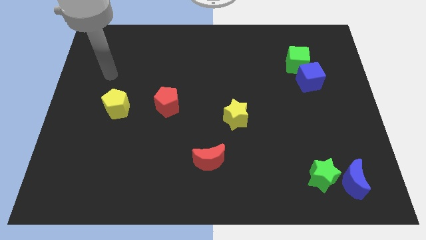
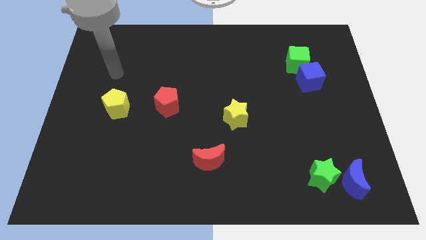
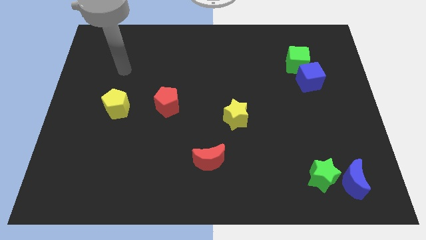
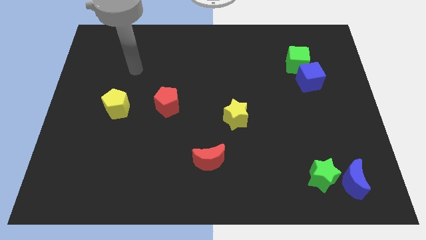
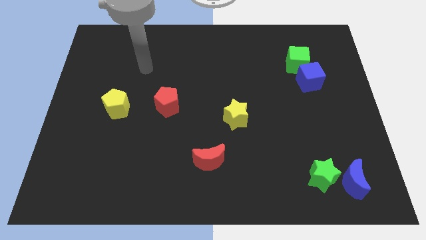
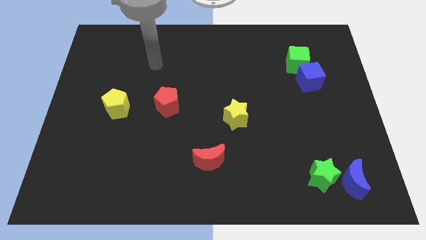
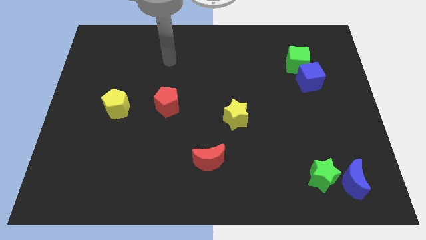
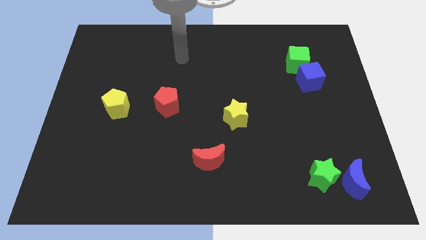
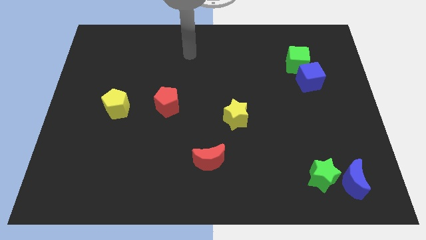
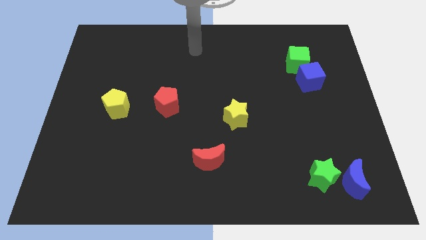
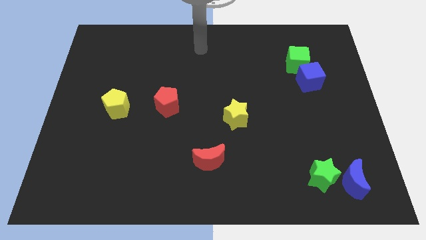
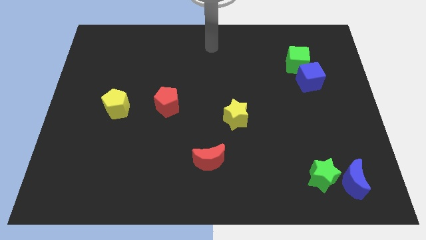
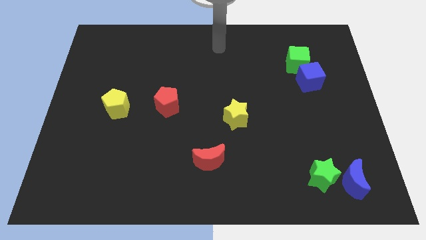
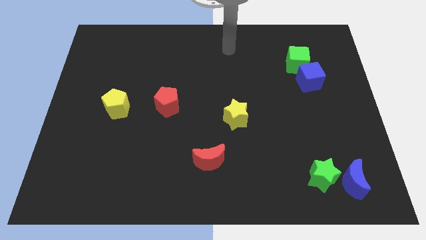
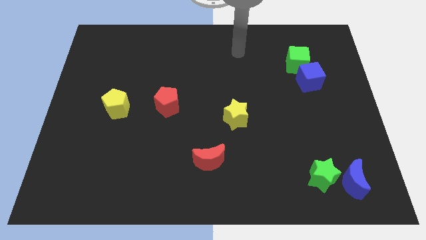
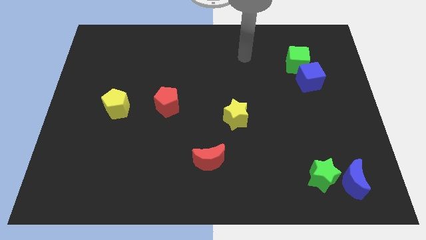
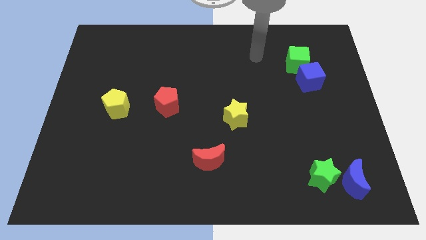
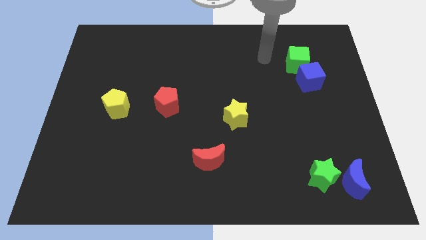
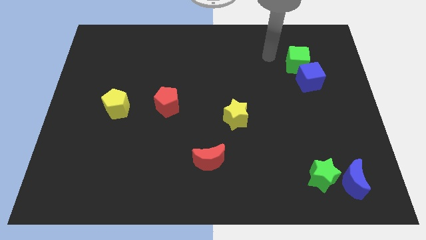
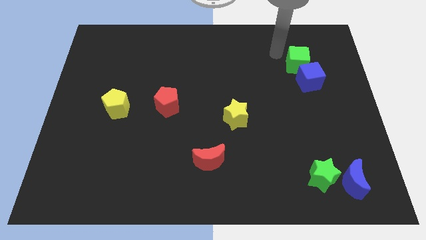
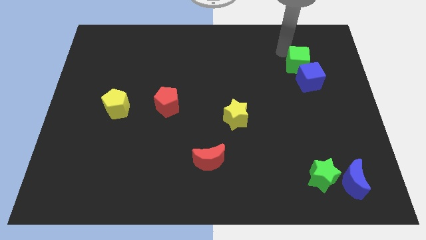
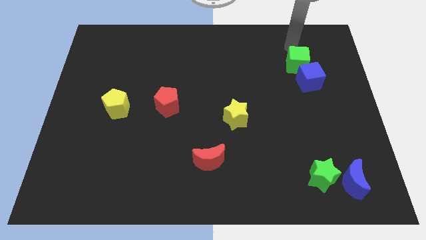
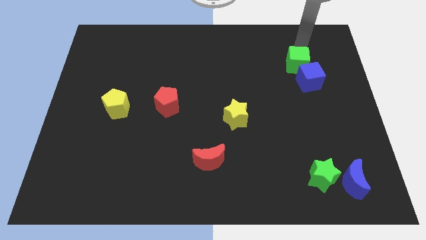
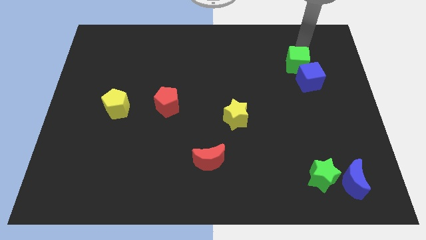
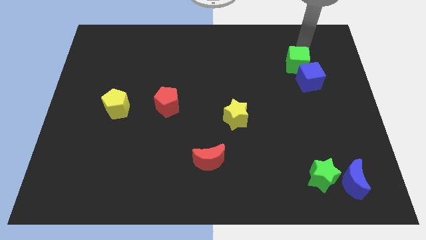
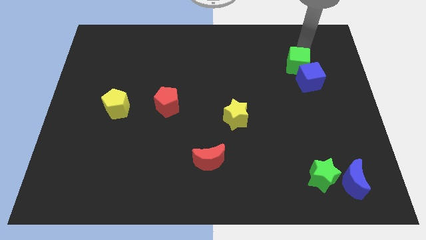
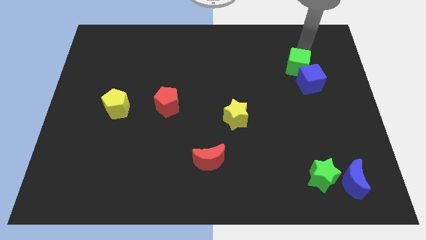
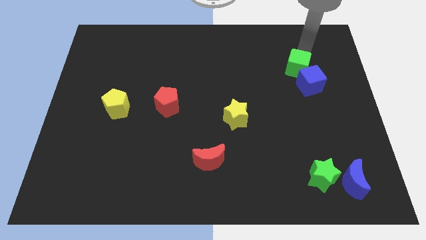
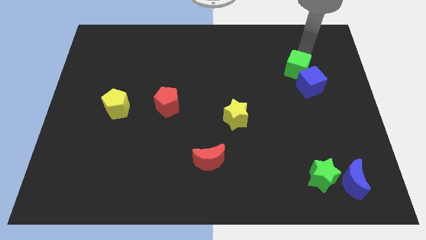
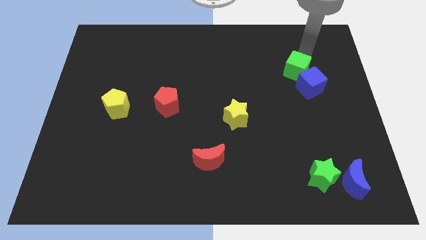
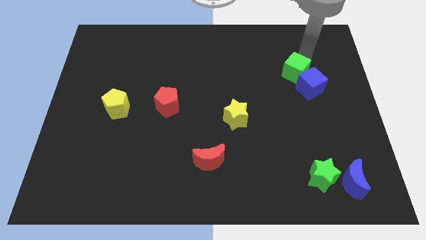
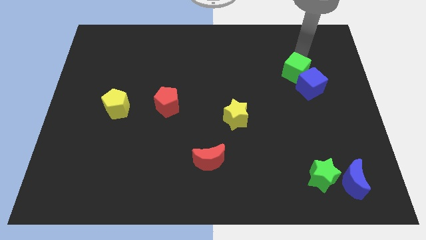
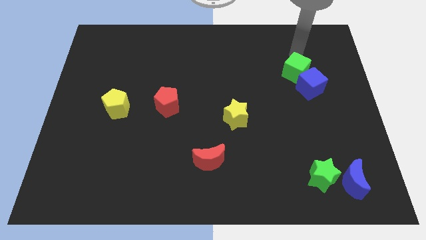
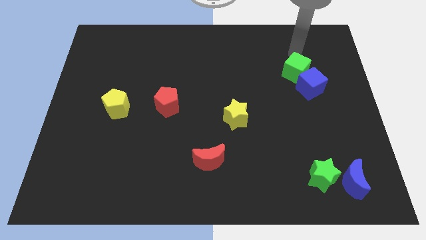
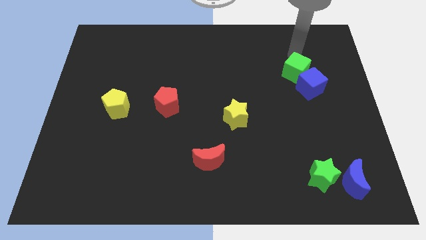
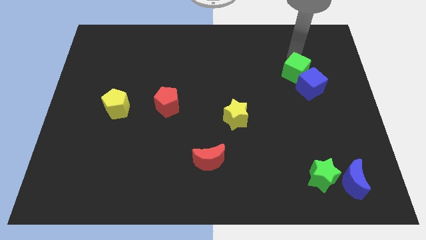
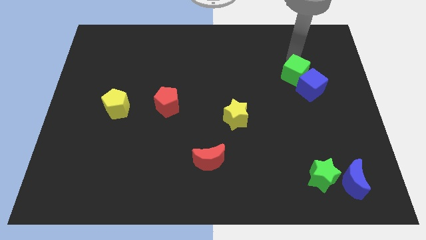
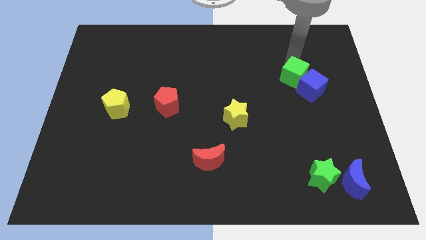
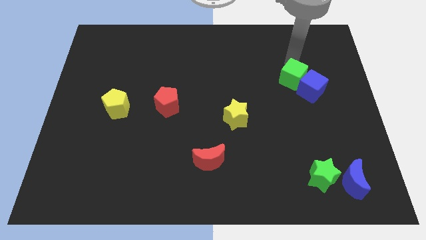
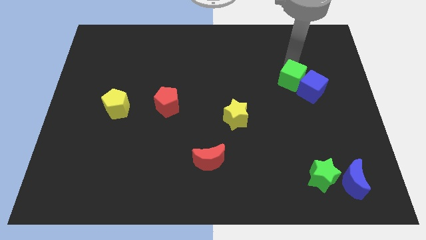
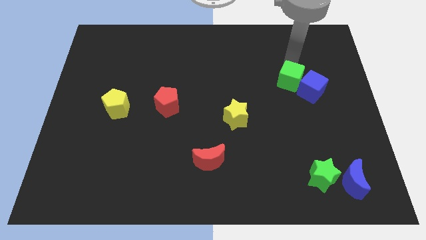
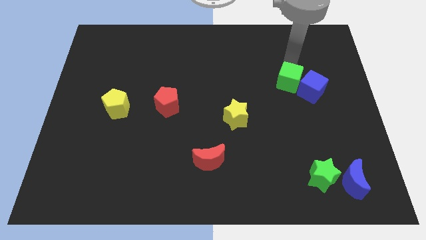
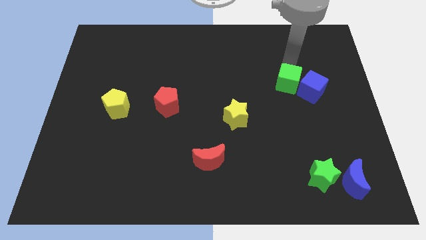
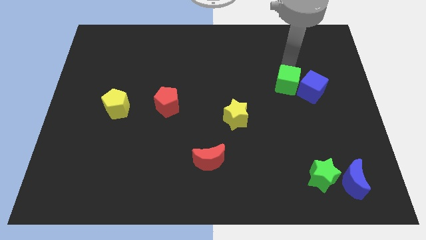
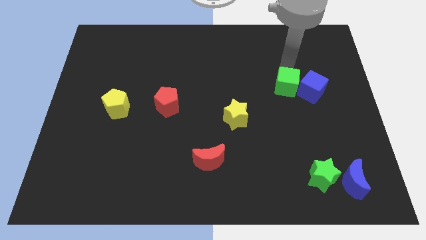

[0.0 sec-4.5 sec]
slightly move the green cube downwards

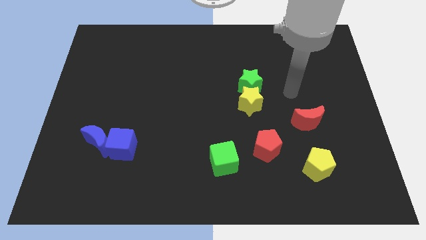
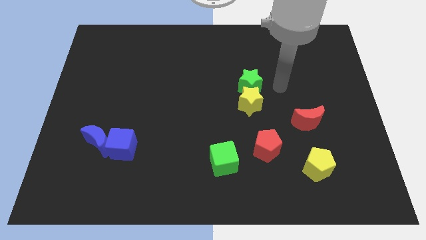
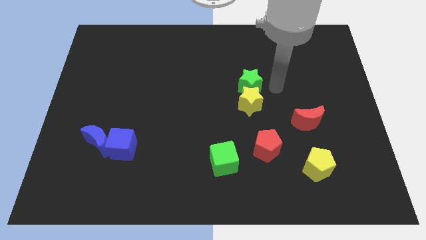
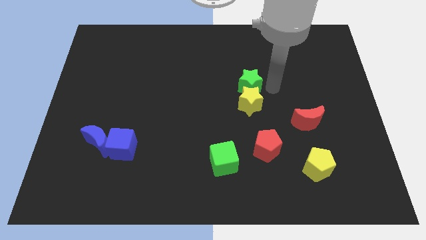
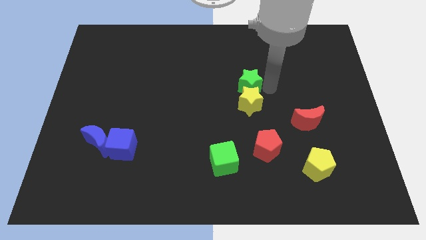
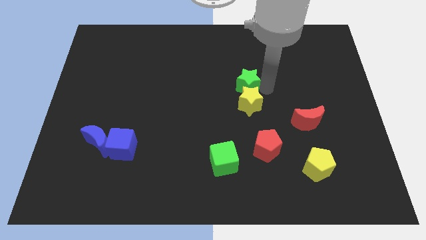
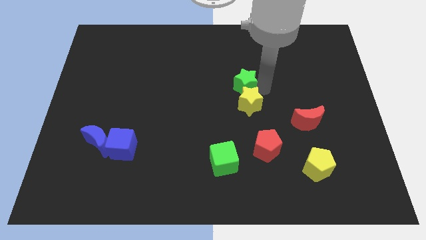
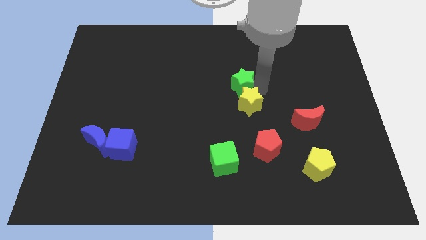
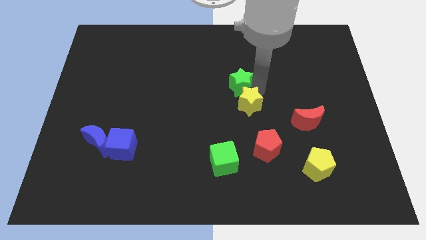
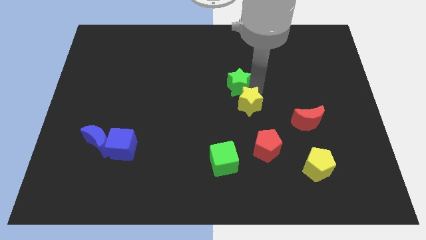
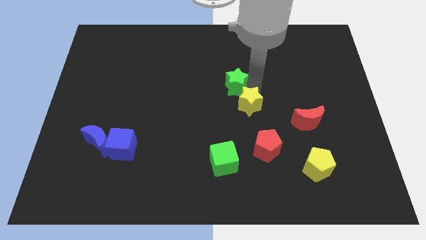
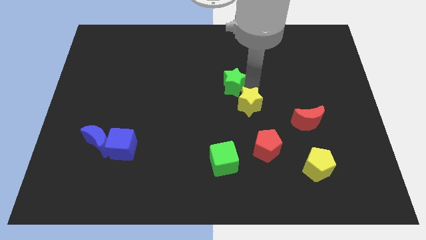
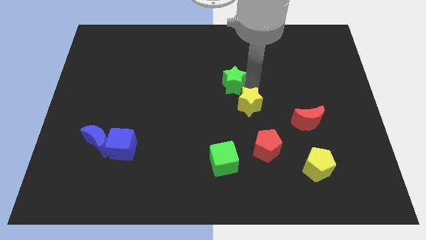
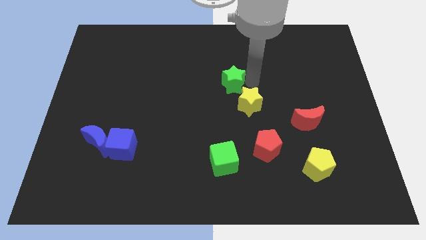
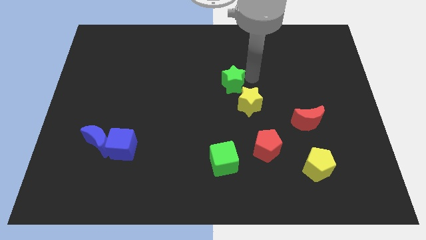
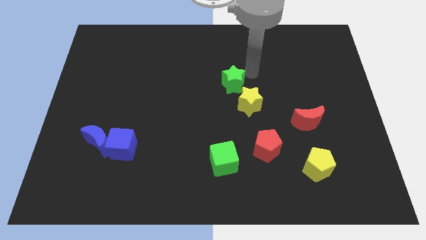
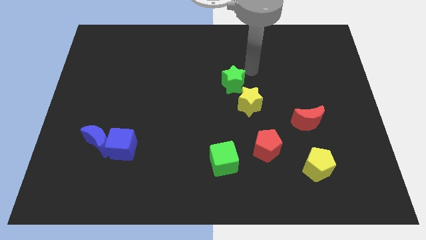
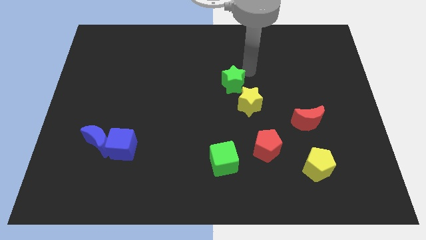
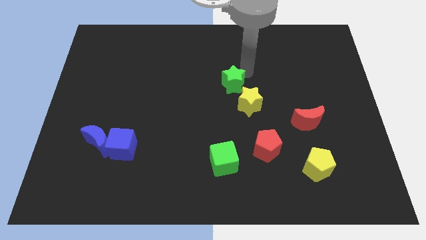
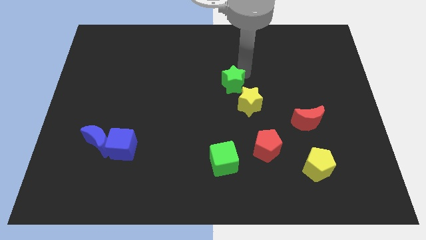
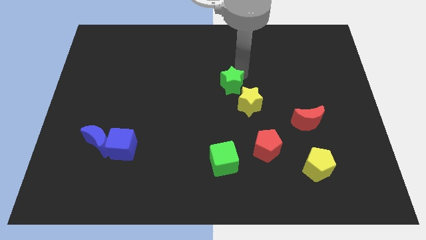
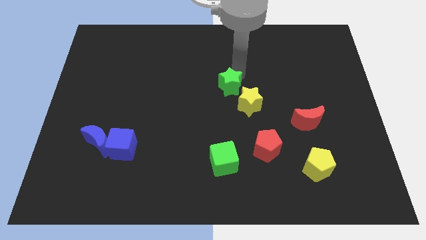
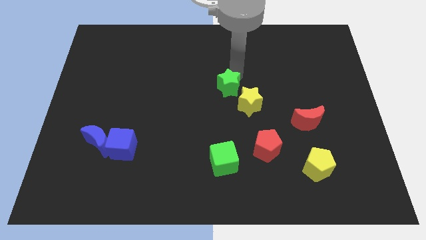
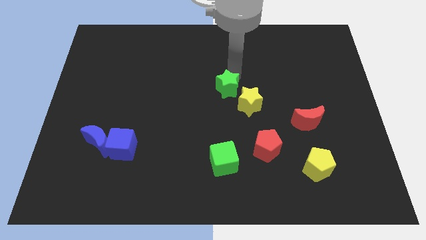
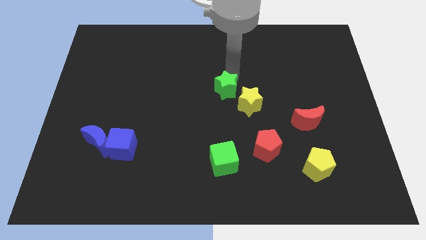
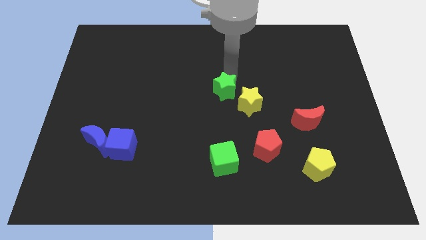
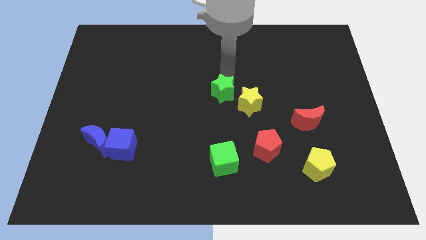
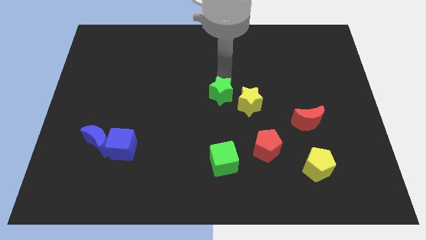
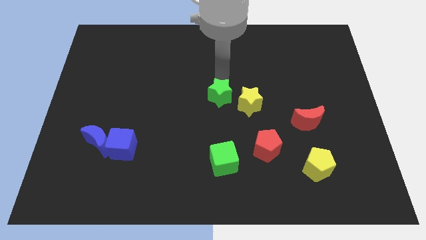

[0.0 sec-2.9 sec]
slightly push the green star down and then to the left

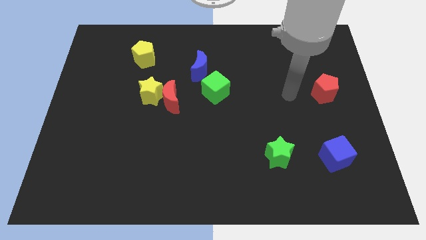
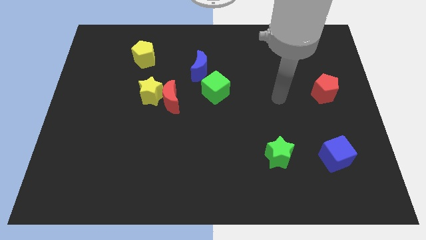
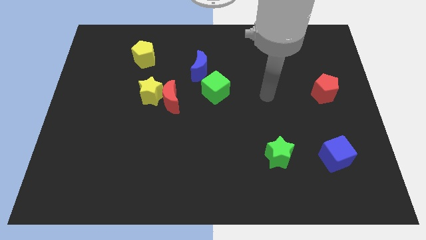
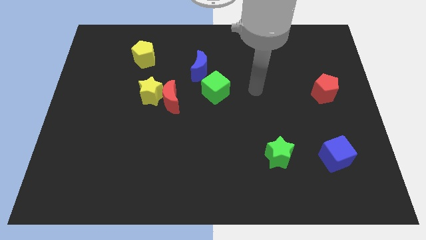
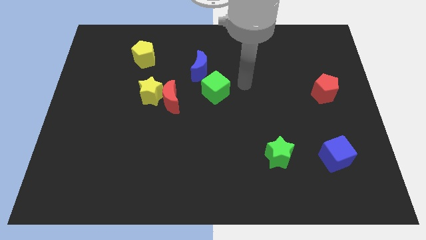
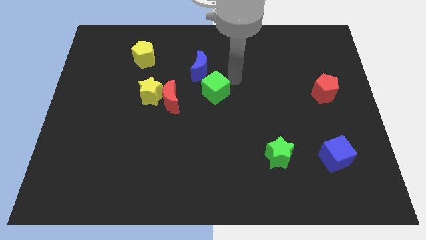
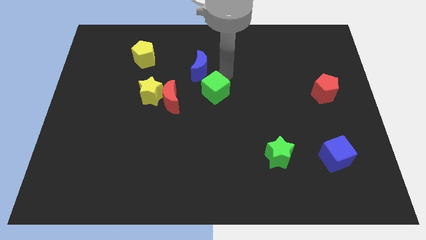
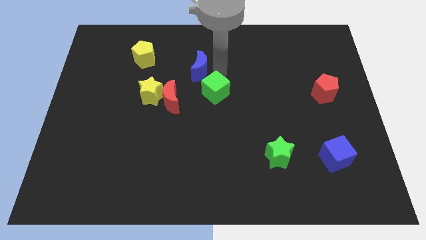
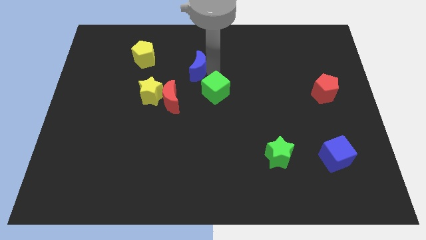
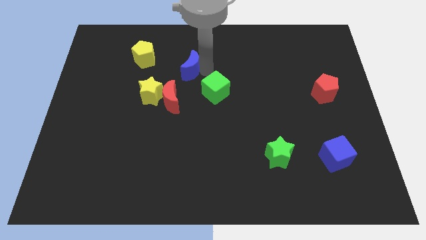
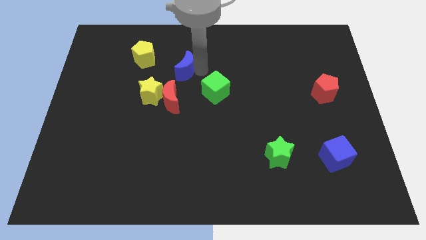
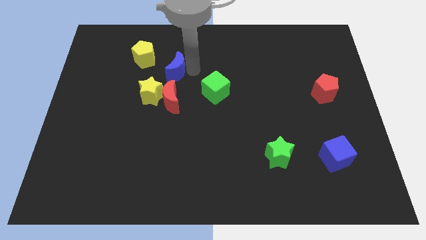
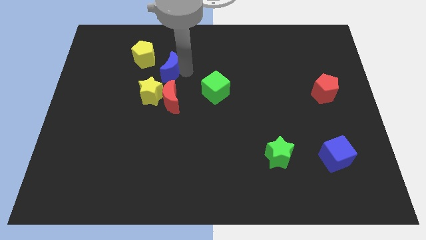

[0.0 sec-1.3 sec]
slightly push the blue moon to the left
